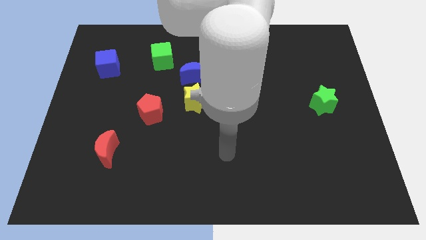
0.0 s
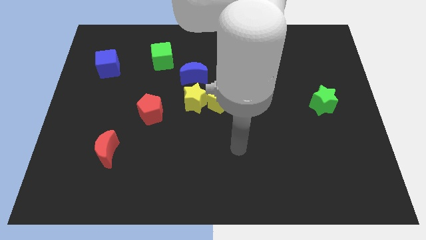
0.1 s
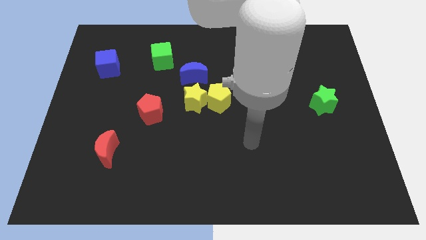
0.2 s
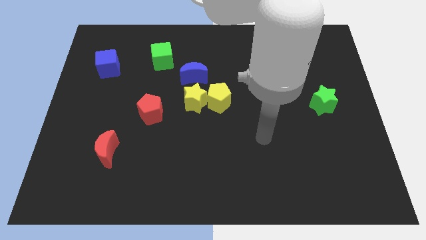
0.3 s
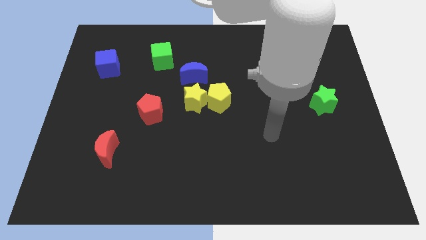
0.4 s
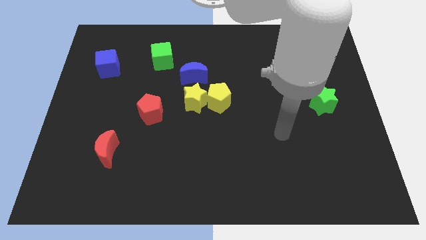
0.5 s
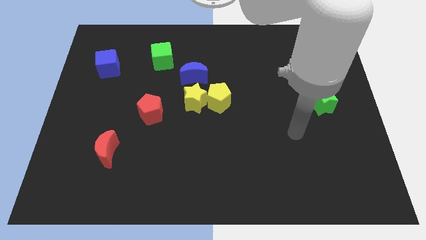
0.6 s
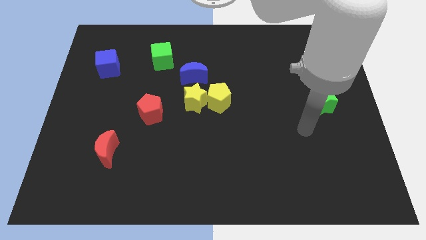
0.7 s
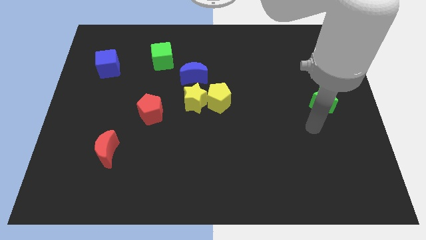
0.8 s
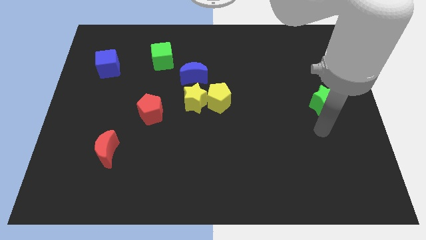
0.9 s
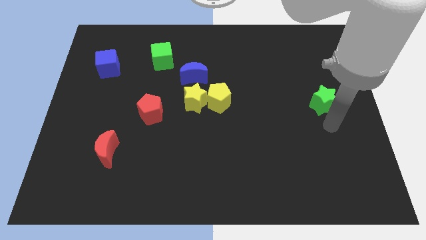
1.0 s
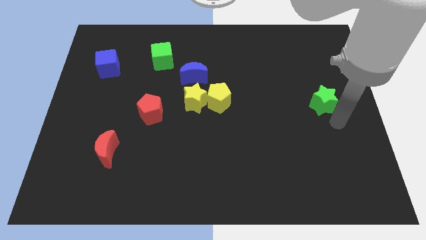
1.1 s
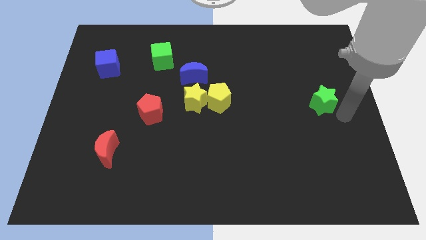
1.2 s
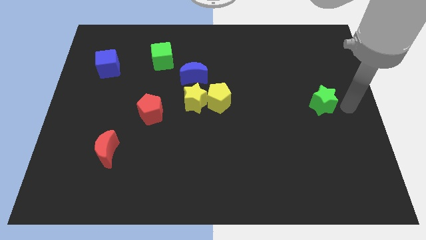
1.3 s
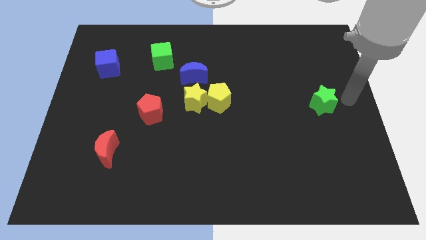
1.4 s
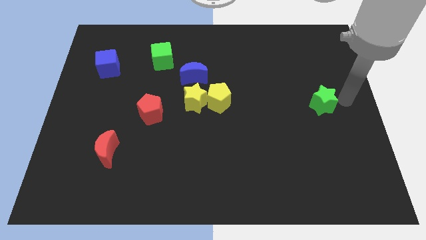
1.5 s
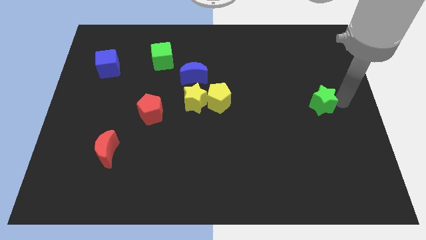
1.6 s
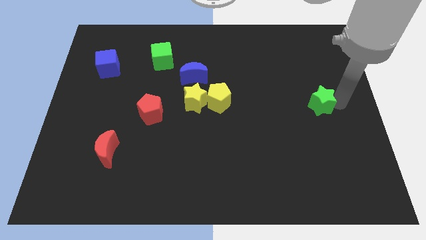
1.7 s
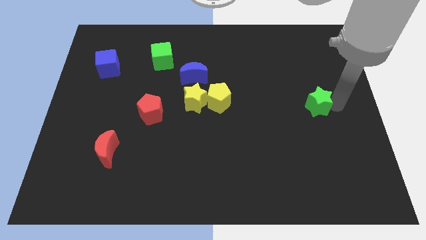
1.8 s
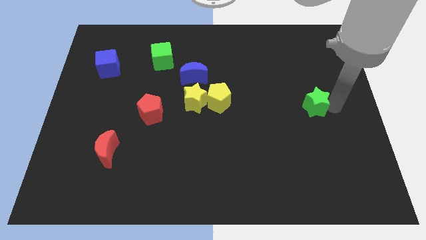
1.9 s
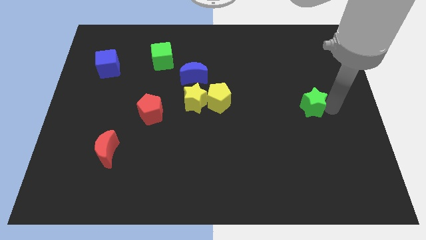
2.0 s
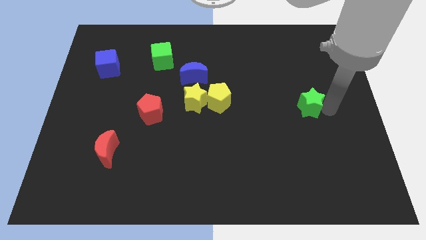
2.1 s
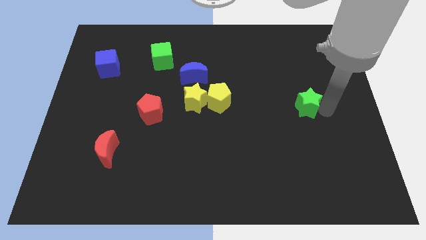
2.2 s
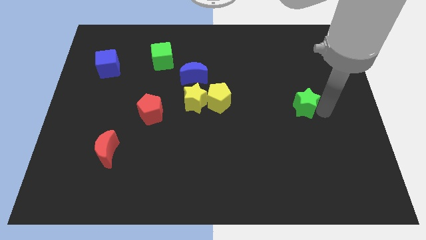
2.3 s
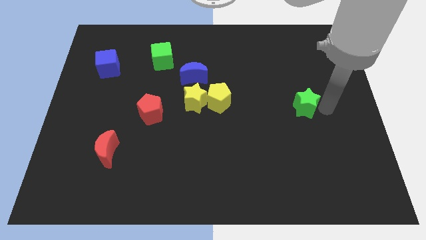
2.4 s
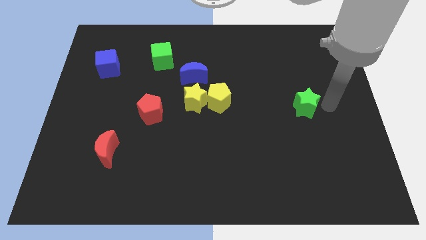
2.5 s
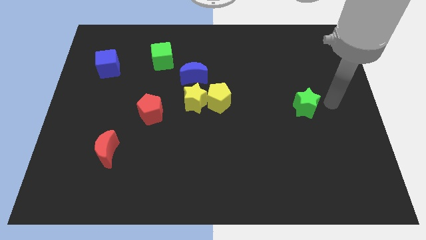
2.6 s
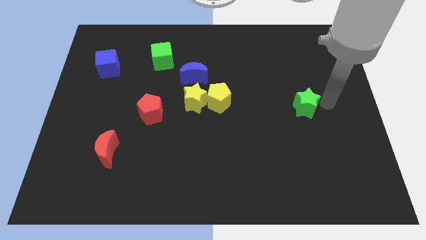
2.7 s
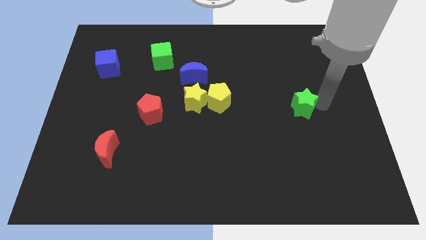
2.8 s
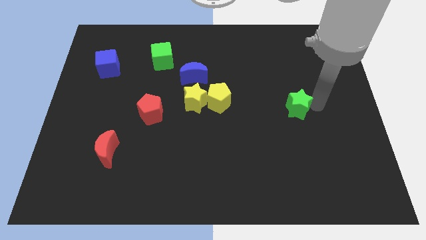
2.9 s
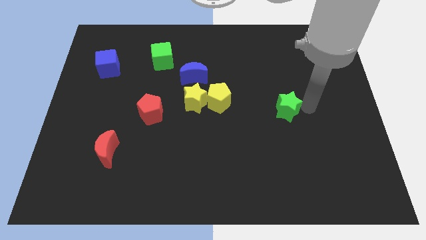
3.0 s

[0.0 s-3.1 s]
move the green star a bit left

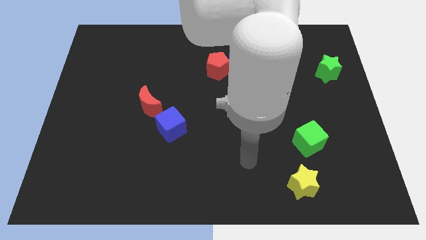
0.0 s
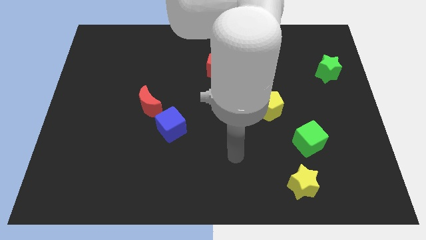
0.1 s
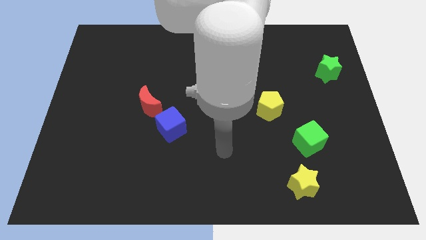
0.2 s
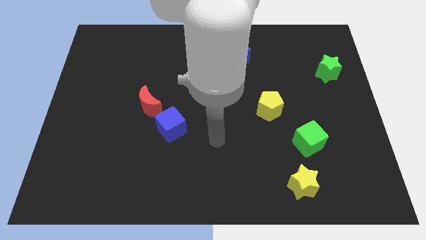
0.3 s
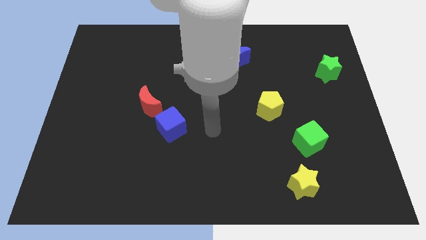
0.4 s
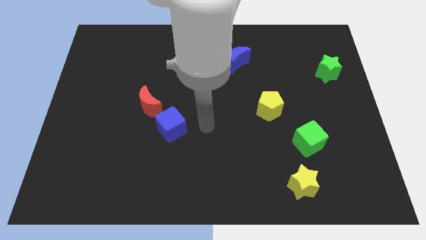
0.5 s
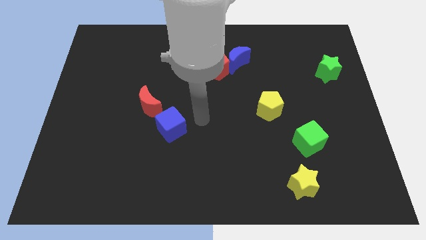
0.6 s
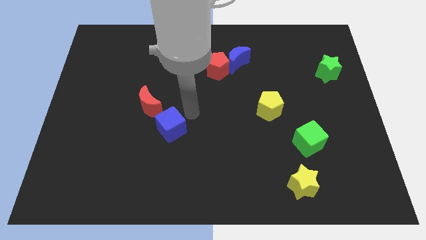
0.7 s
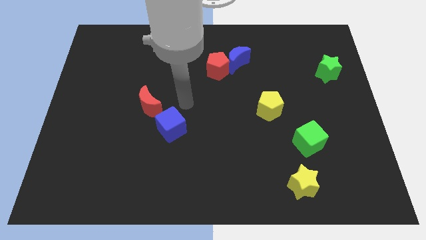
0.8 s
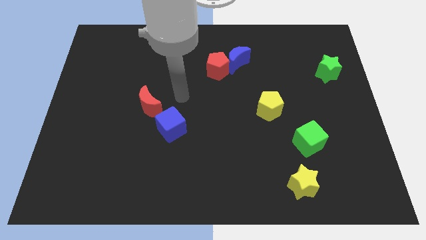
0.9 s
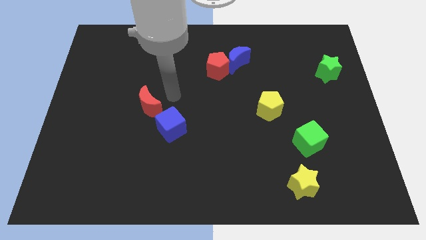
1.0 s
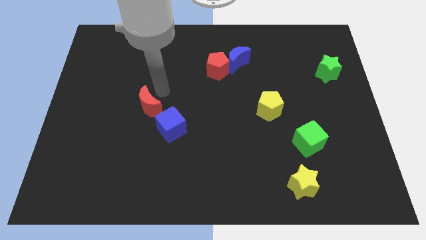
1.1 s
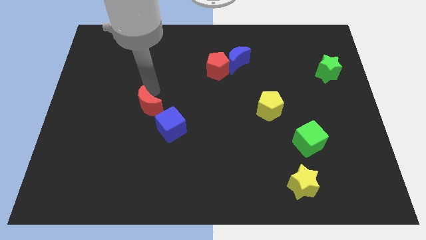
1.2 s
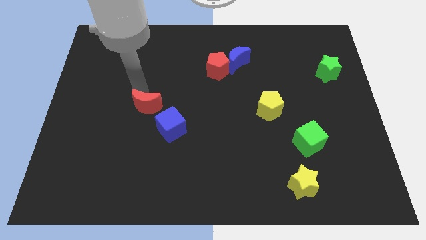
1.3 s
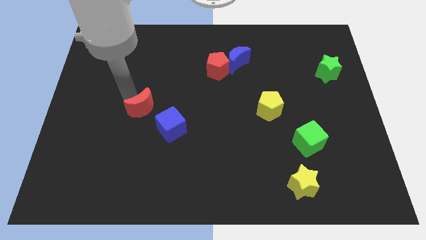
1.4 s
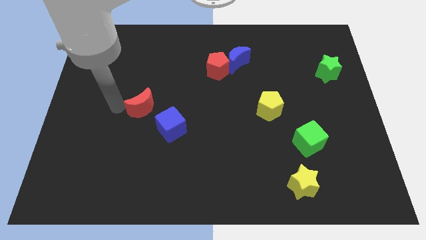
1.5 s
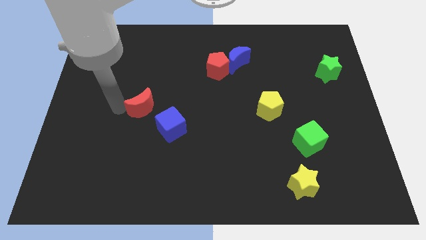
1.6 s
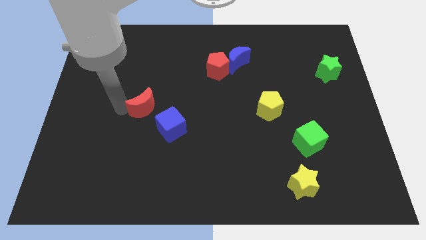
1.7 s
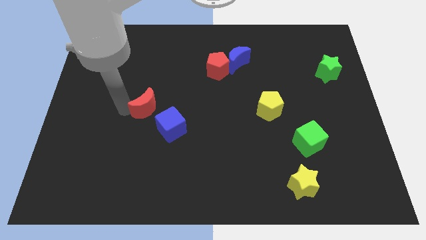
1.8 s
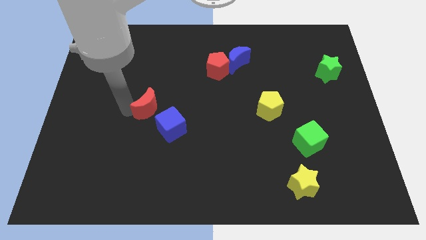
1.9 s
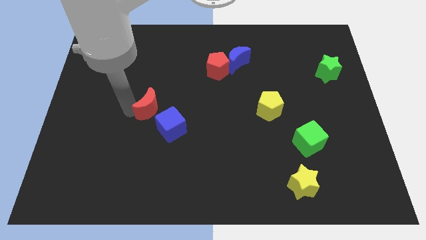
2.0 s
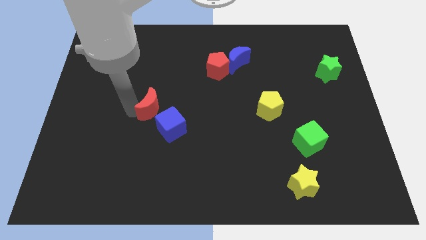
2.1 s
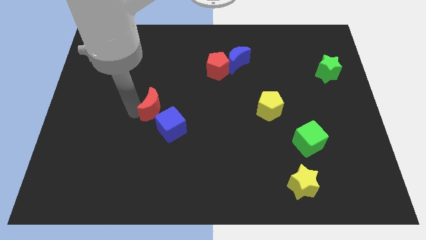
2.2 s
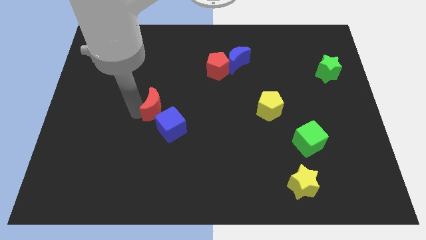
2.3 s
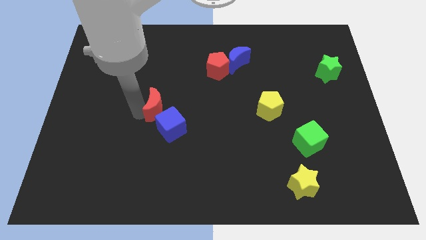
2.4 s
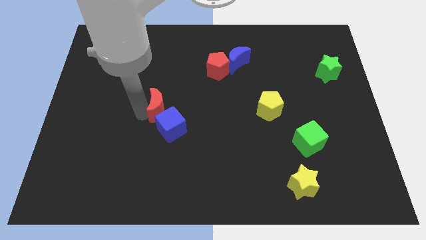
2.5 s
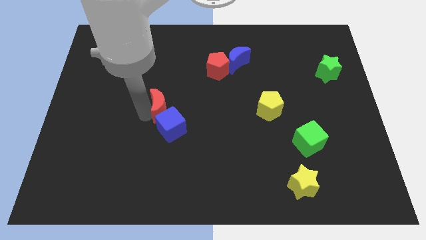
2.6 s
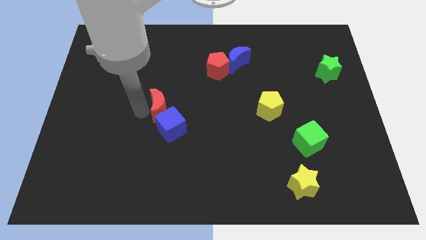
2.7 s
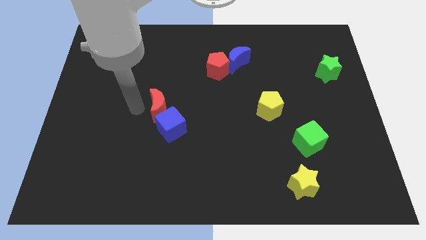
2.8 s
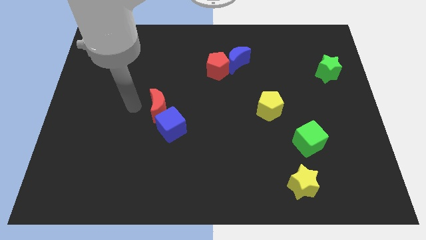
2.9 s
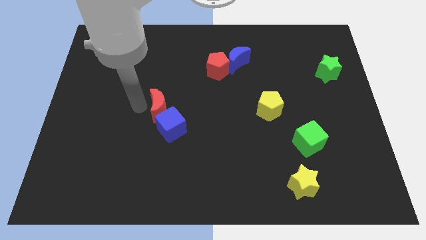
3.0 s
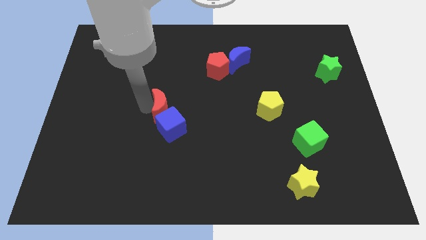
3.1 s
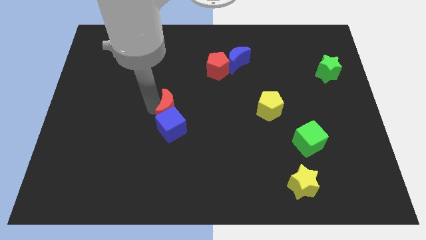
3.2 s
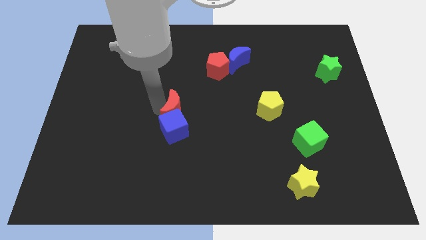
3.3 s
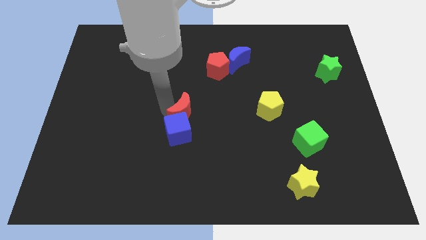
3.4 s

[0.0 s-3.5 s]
push the red moon a little bit to the right

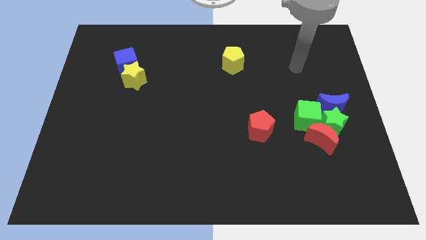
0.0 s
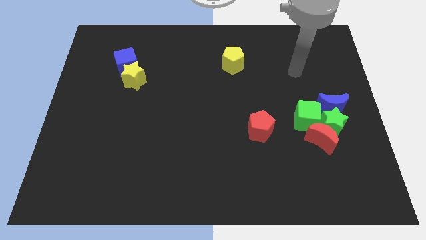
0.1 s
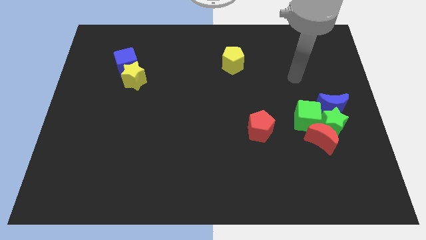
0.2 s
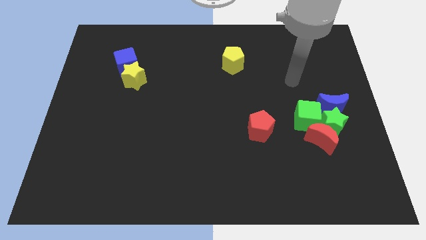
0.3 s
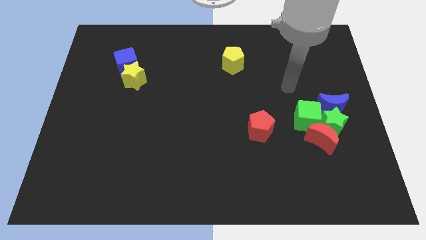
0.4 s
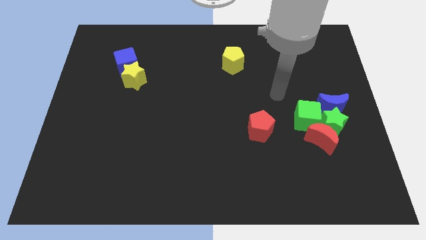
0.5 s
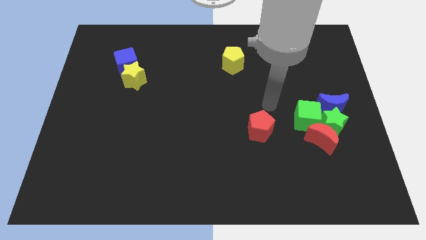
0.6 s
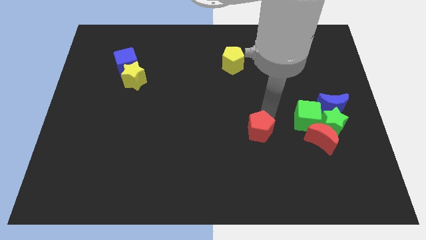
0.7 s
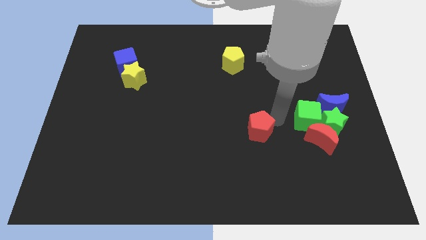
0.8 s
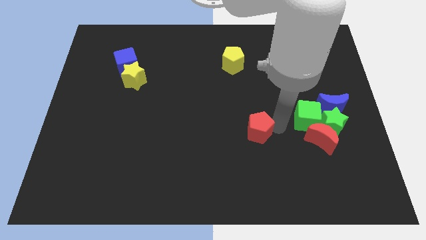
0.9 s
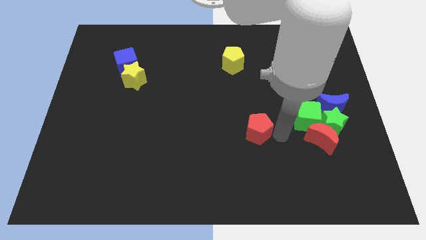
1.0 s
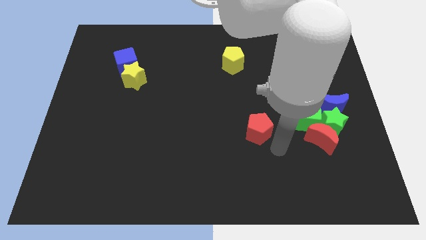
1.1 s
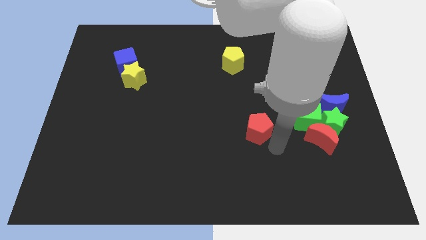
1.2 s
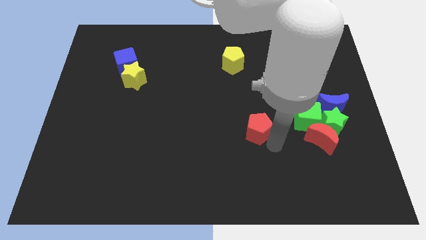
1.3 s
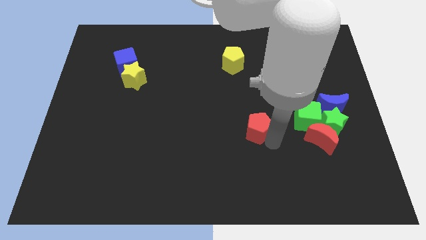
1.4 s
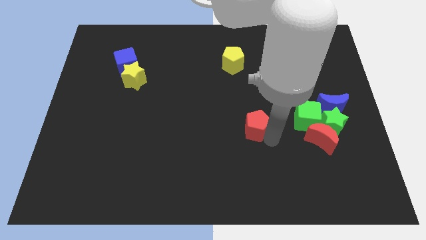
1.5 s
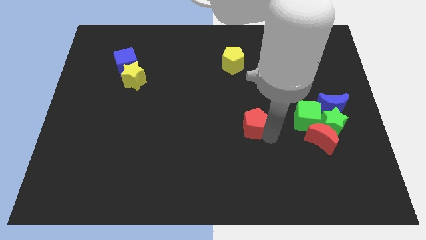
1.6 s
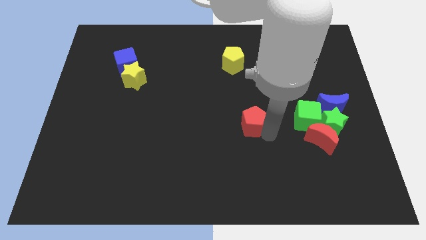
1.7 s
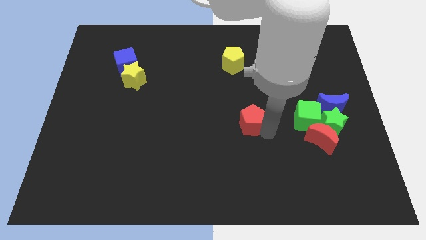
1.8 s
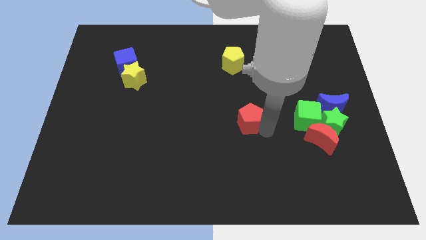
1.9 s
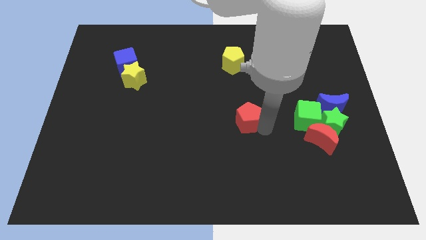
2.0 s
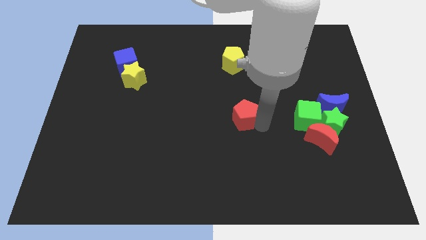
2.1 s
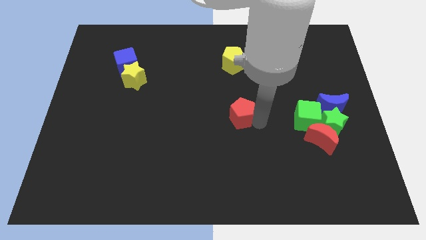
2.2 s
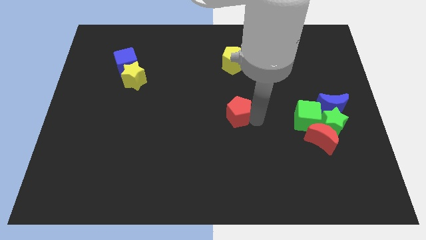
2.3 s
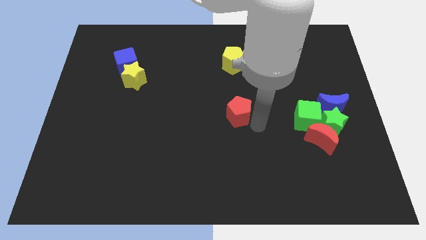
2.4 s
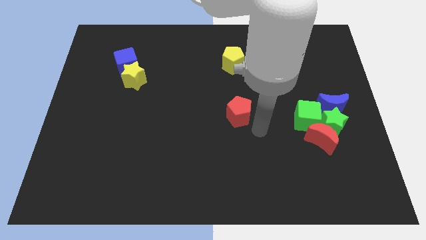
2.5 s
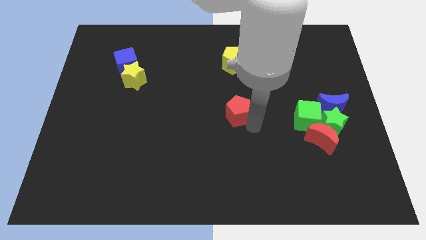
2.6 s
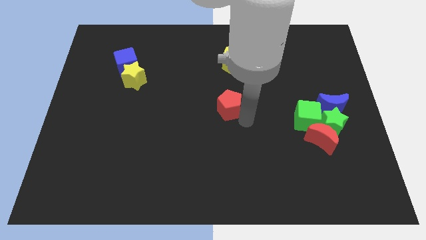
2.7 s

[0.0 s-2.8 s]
push the red pentagon a bit diagonally up and to the left
